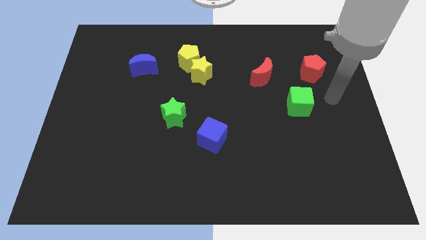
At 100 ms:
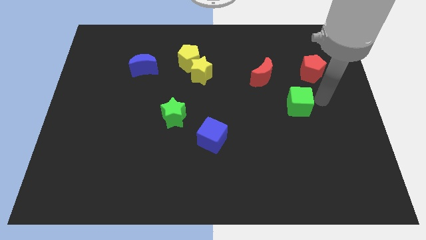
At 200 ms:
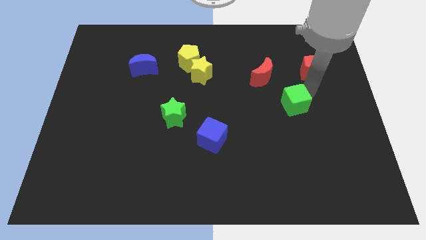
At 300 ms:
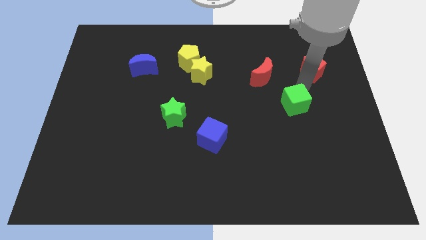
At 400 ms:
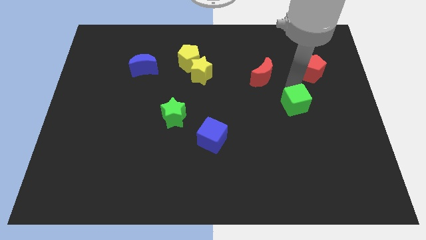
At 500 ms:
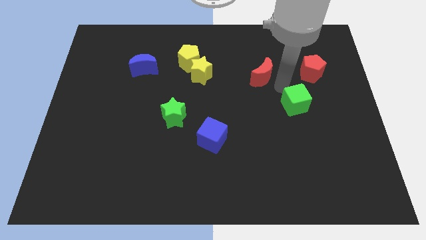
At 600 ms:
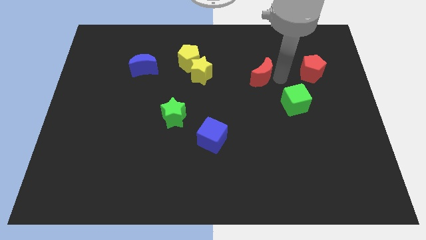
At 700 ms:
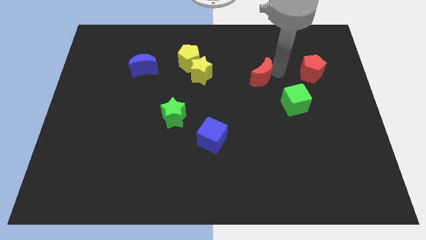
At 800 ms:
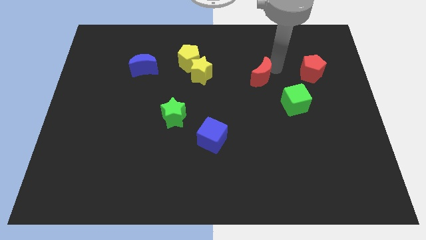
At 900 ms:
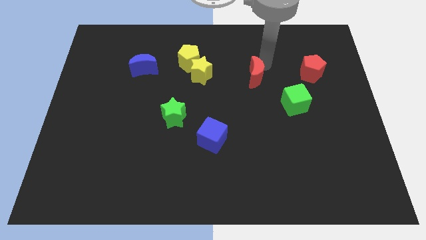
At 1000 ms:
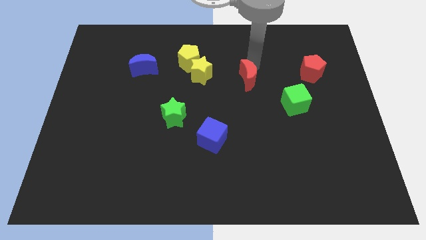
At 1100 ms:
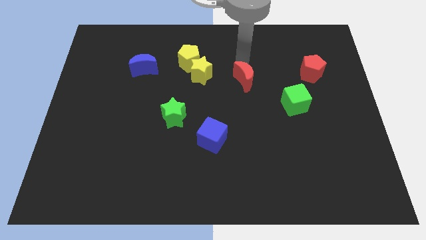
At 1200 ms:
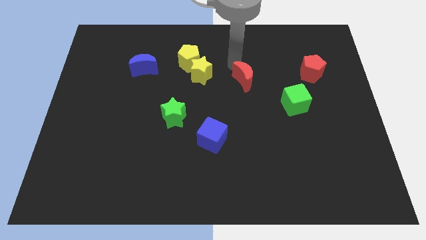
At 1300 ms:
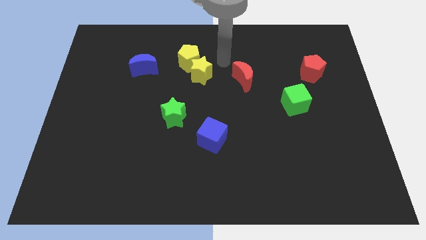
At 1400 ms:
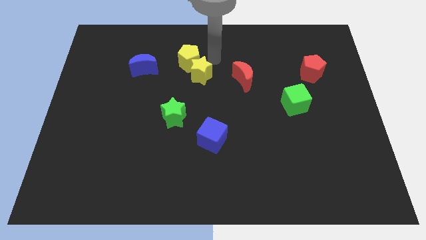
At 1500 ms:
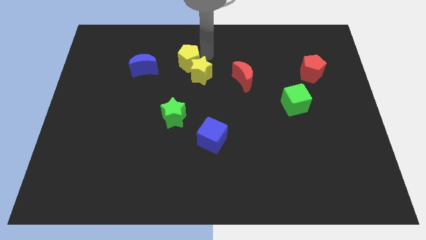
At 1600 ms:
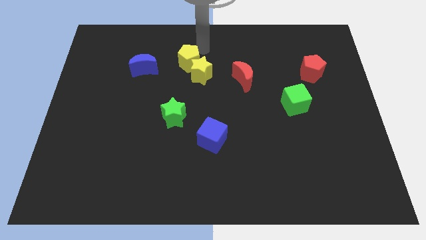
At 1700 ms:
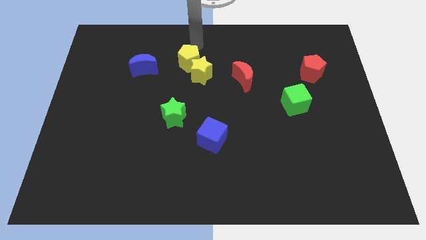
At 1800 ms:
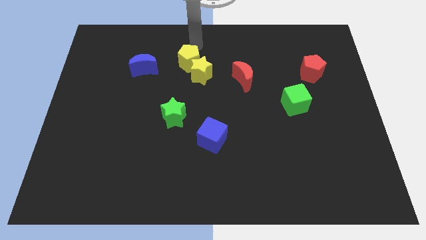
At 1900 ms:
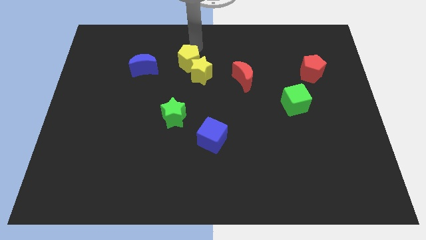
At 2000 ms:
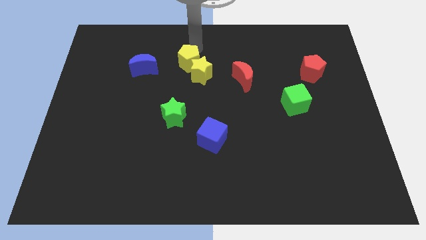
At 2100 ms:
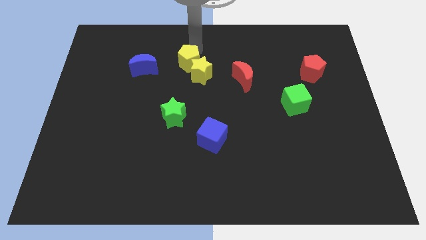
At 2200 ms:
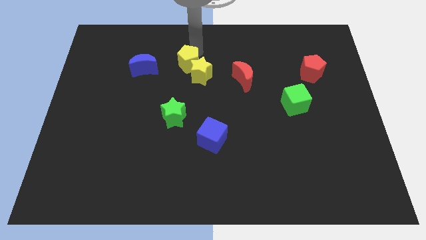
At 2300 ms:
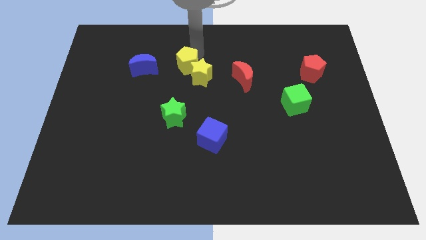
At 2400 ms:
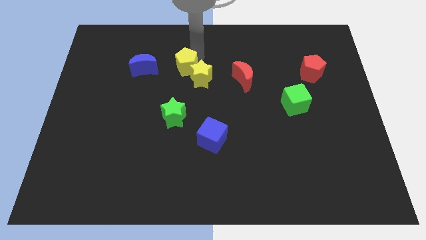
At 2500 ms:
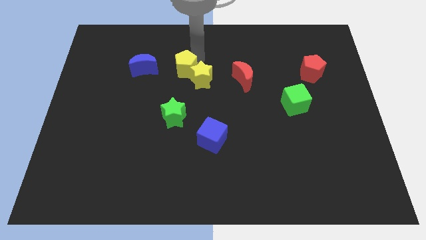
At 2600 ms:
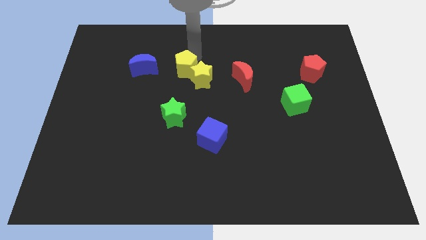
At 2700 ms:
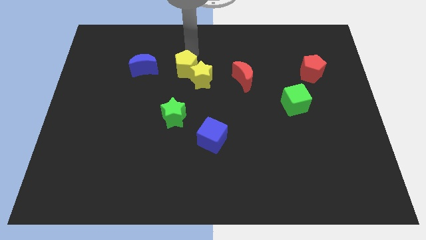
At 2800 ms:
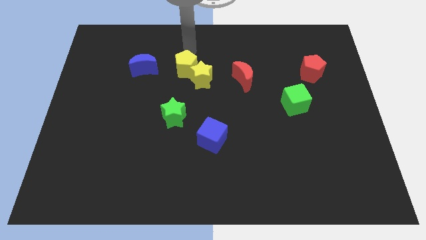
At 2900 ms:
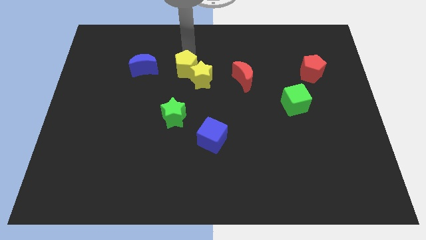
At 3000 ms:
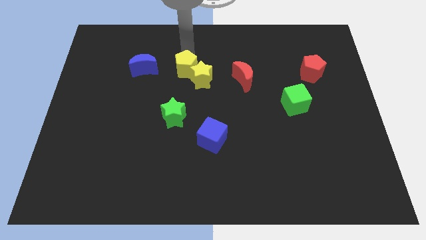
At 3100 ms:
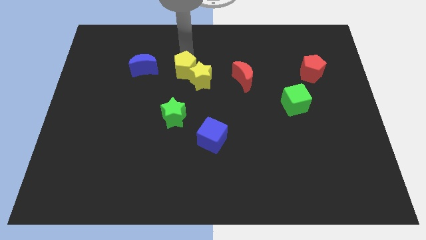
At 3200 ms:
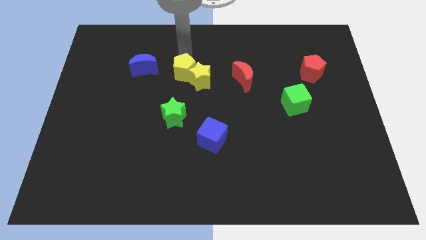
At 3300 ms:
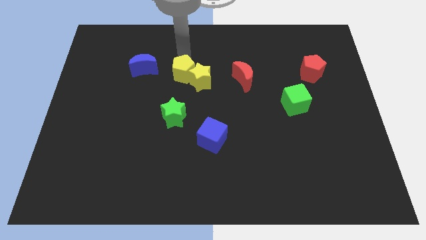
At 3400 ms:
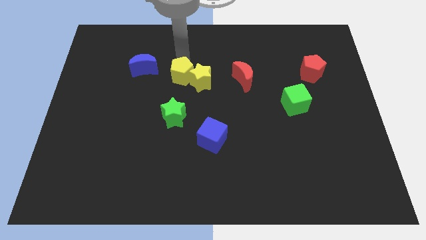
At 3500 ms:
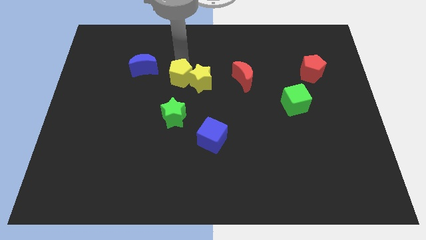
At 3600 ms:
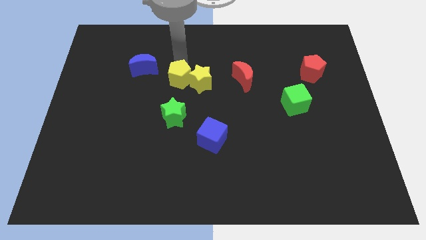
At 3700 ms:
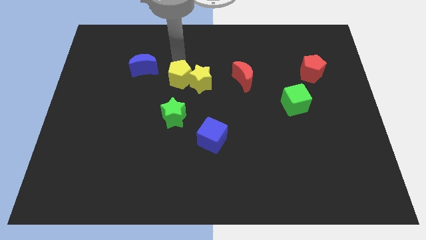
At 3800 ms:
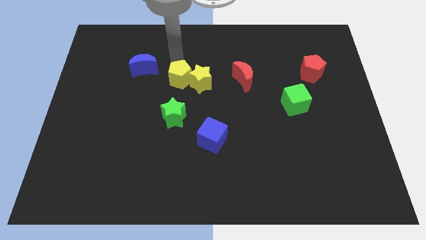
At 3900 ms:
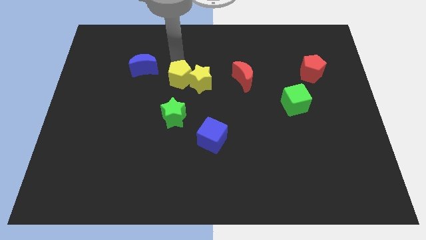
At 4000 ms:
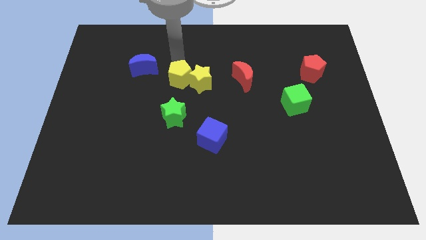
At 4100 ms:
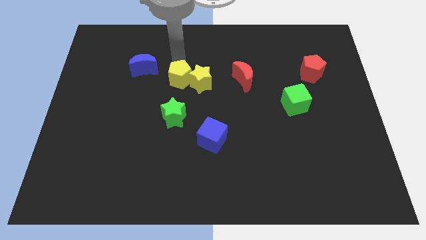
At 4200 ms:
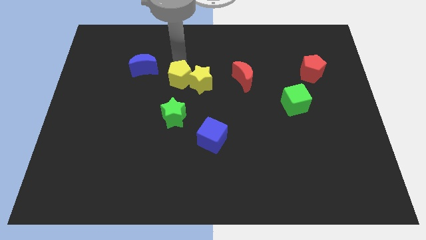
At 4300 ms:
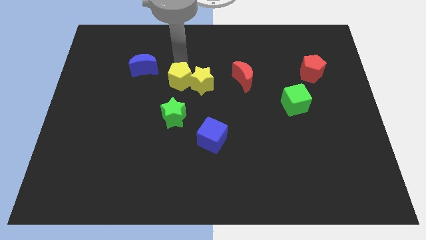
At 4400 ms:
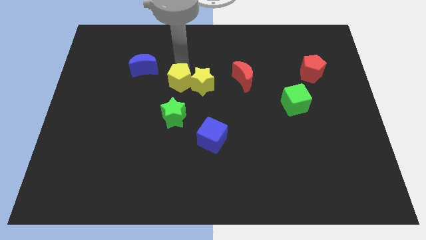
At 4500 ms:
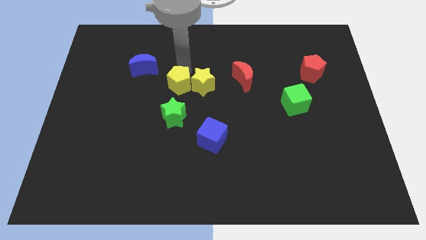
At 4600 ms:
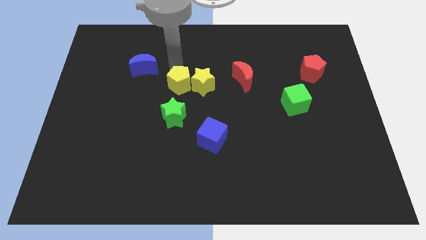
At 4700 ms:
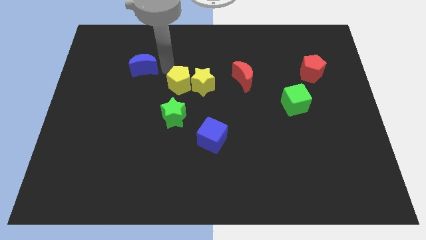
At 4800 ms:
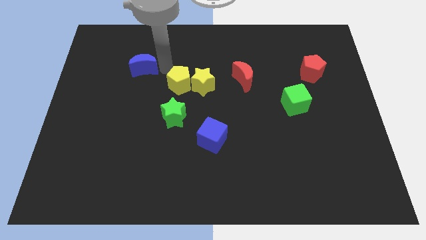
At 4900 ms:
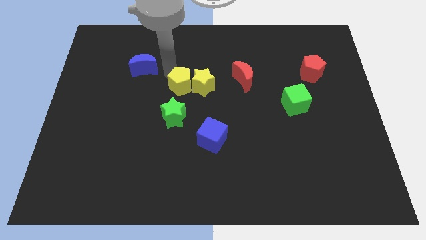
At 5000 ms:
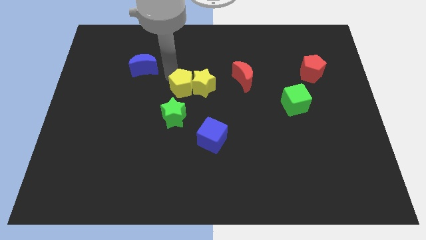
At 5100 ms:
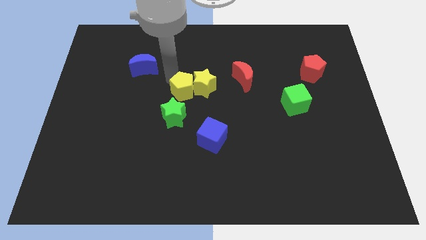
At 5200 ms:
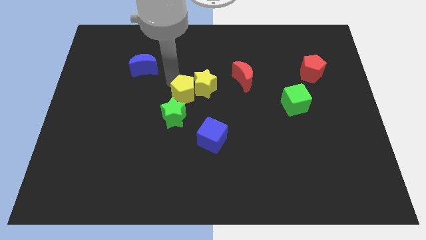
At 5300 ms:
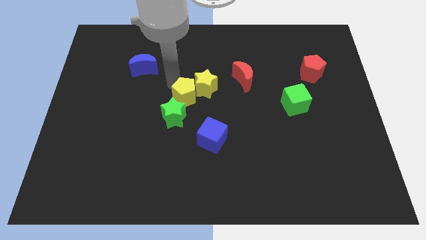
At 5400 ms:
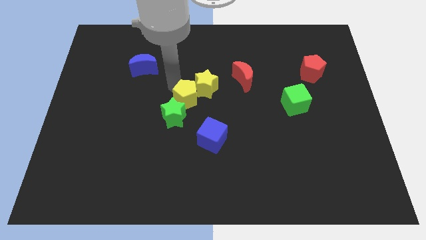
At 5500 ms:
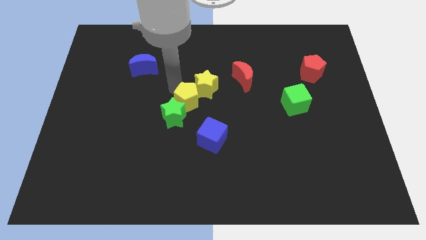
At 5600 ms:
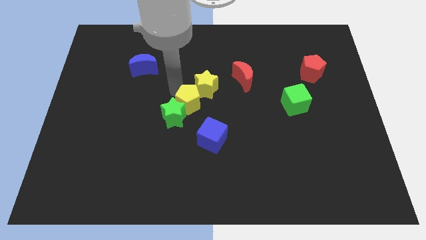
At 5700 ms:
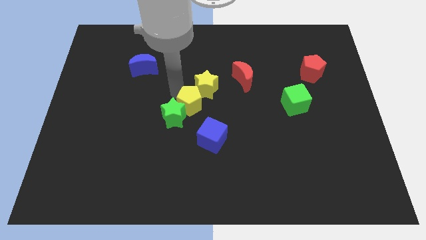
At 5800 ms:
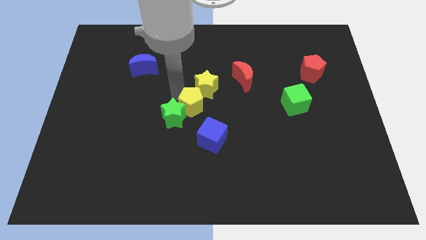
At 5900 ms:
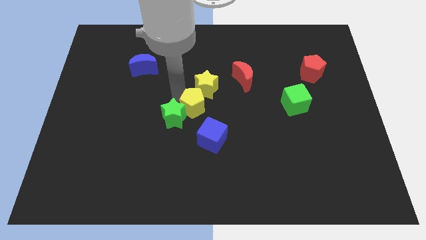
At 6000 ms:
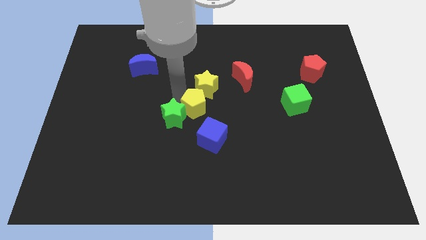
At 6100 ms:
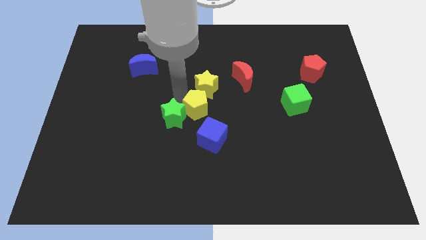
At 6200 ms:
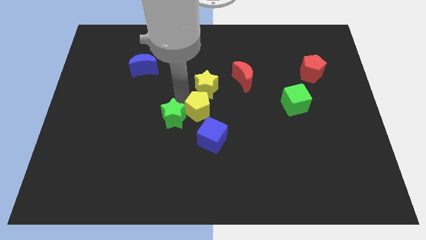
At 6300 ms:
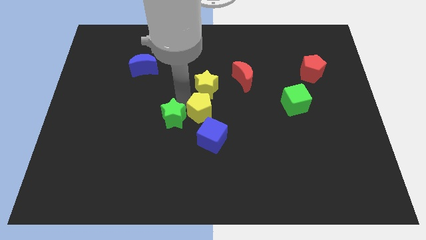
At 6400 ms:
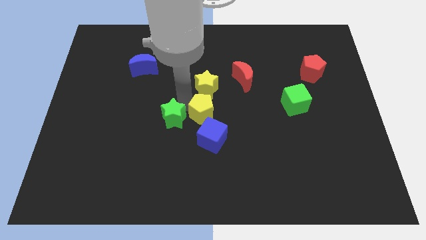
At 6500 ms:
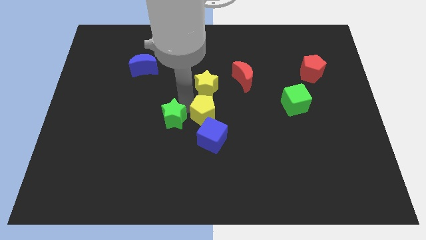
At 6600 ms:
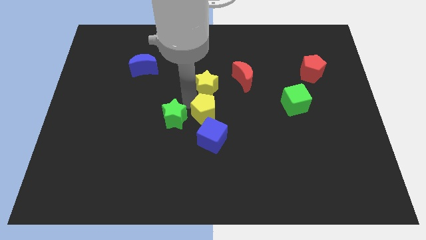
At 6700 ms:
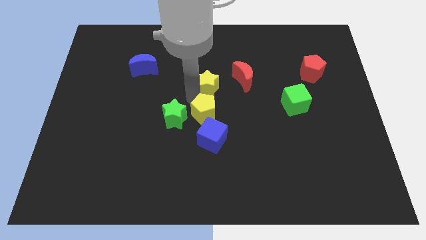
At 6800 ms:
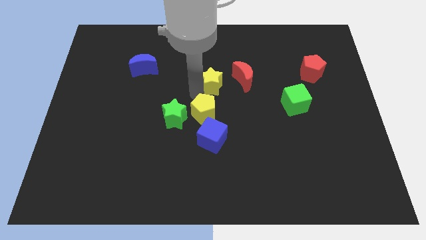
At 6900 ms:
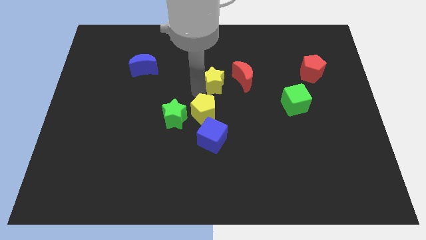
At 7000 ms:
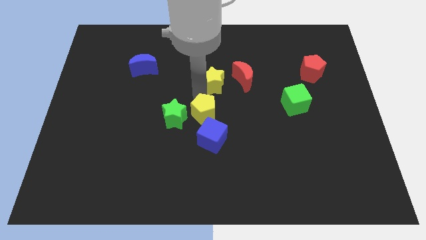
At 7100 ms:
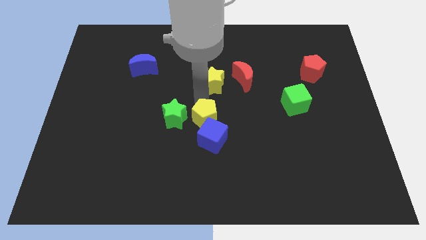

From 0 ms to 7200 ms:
move the yellow pentagon towards the blue cube

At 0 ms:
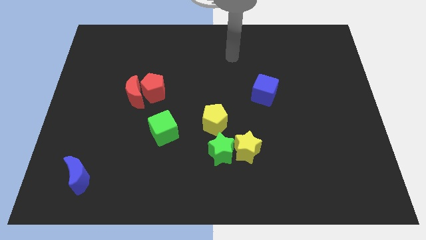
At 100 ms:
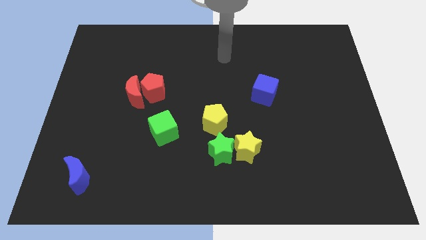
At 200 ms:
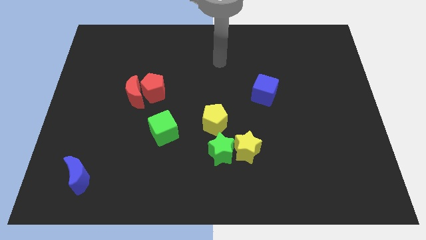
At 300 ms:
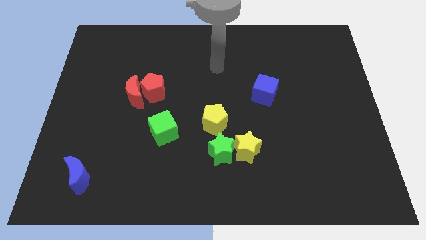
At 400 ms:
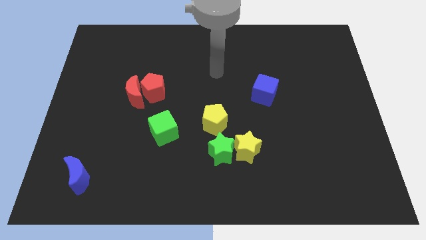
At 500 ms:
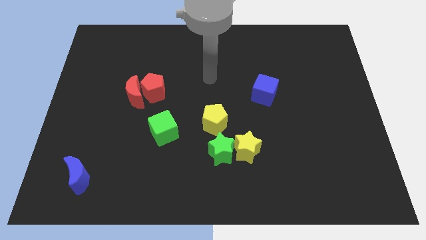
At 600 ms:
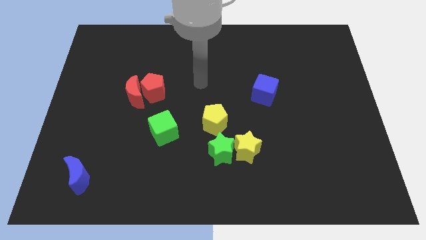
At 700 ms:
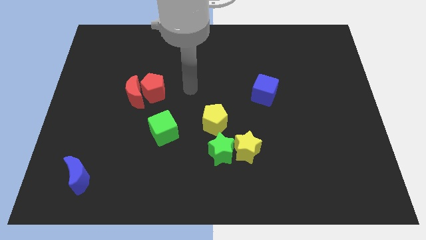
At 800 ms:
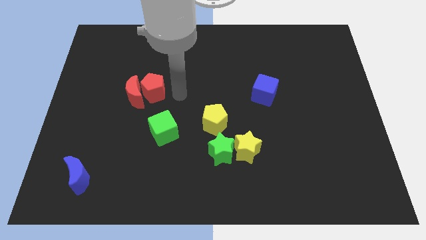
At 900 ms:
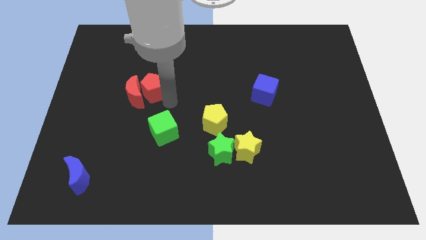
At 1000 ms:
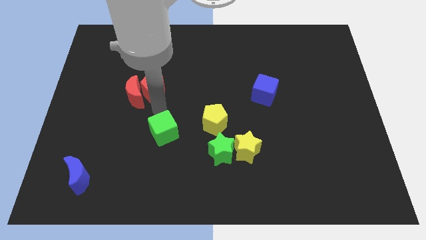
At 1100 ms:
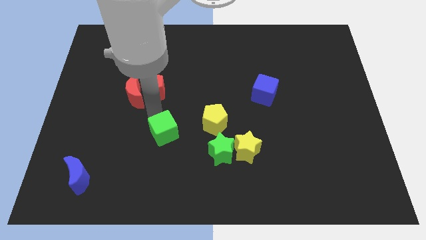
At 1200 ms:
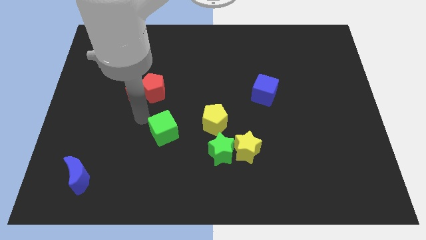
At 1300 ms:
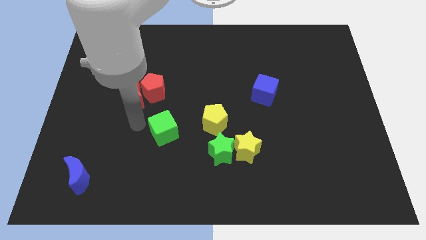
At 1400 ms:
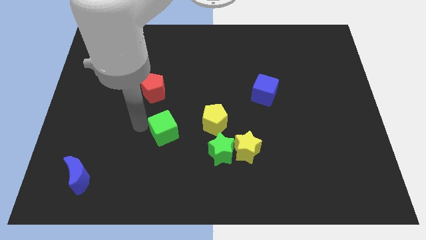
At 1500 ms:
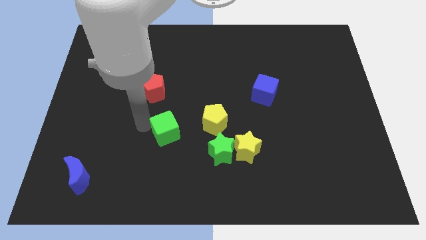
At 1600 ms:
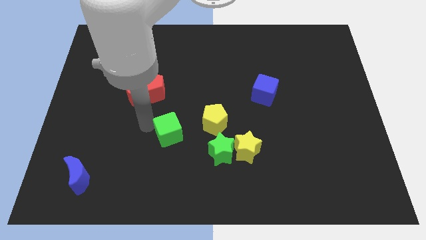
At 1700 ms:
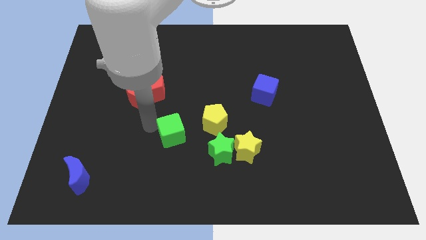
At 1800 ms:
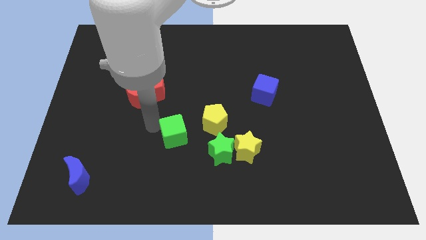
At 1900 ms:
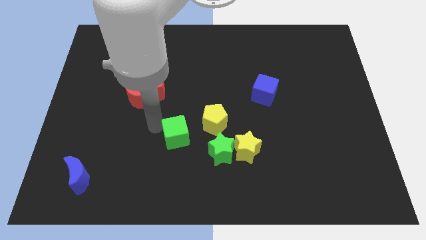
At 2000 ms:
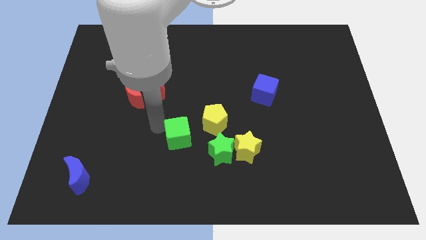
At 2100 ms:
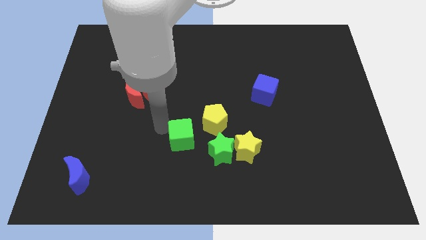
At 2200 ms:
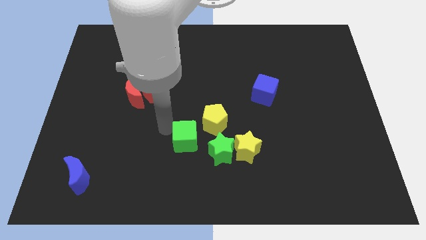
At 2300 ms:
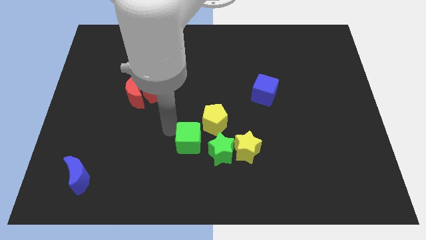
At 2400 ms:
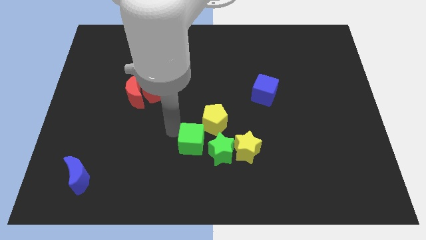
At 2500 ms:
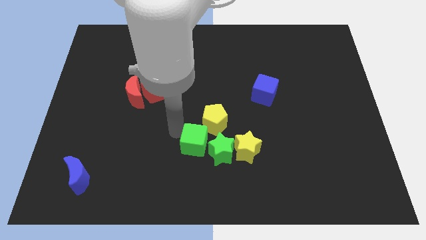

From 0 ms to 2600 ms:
move the green cube next to the green star
